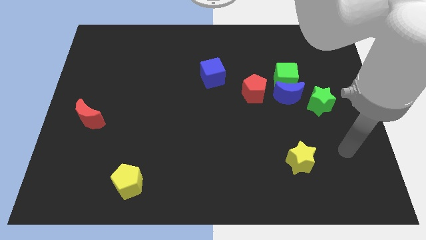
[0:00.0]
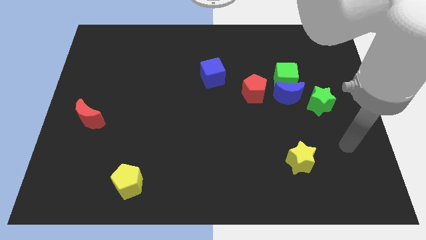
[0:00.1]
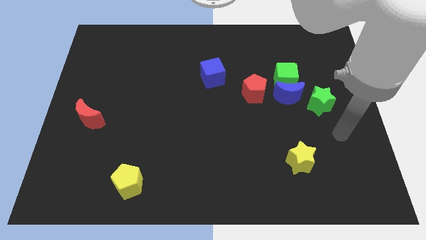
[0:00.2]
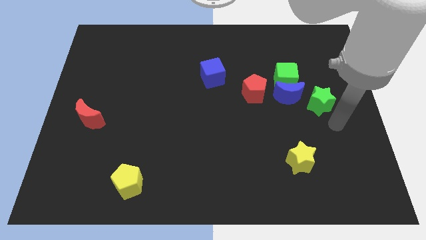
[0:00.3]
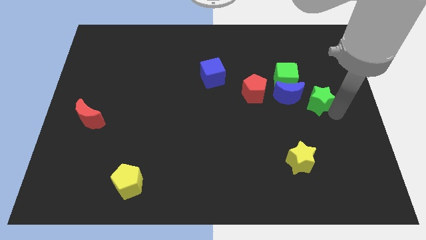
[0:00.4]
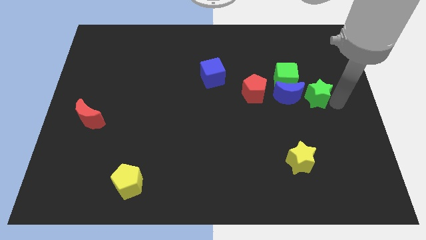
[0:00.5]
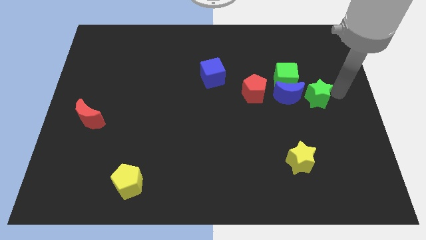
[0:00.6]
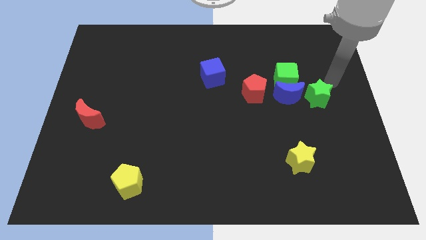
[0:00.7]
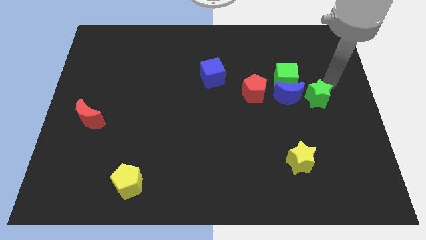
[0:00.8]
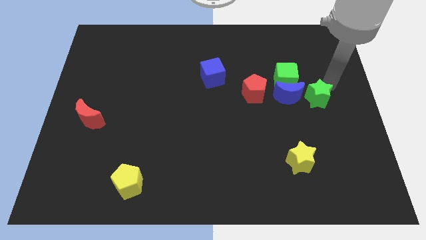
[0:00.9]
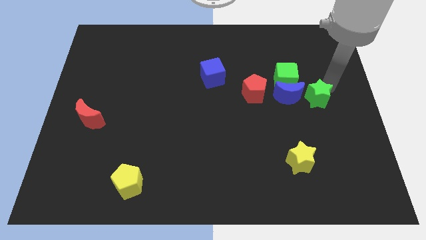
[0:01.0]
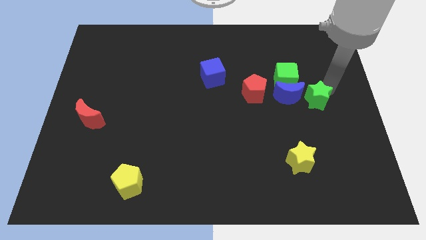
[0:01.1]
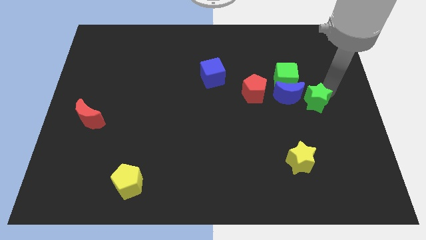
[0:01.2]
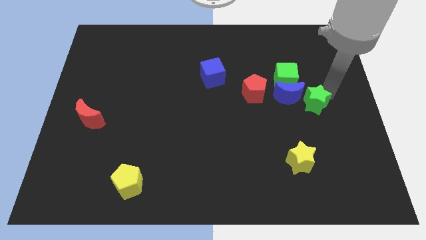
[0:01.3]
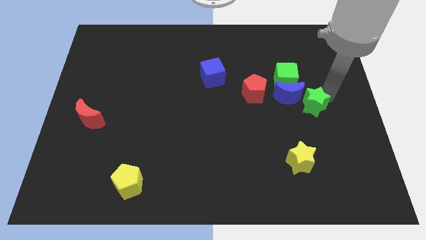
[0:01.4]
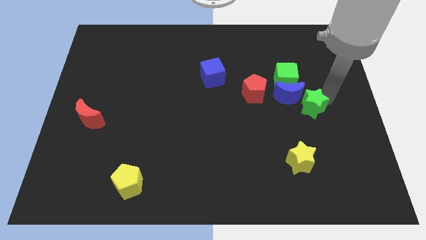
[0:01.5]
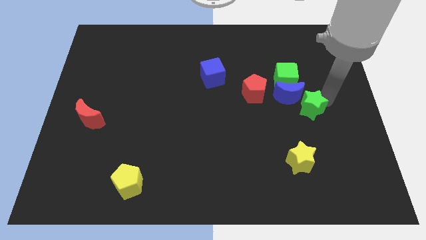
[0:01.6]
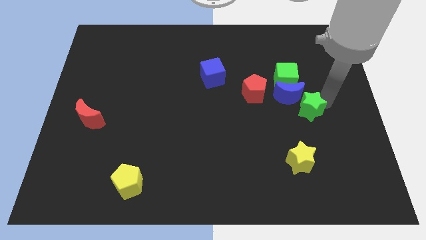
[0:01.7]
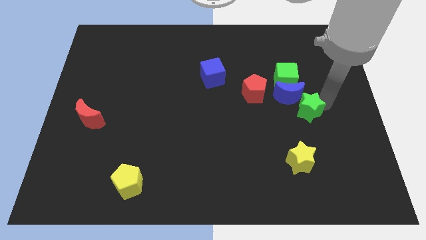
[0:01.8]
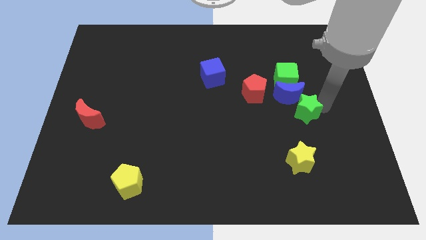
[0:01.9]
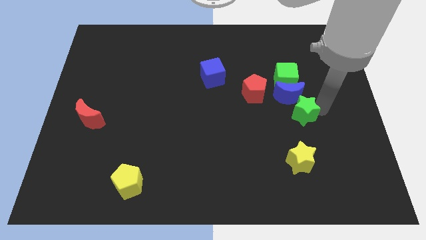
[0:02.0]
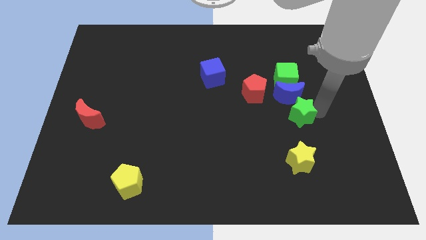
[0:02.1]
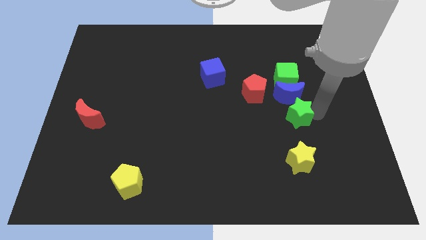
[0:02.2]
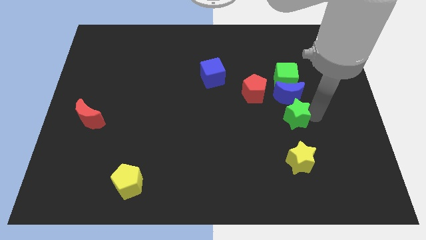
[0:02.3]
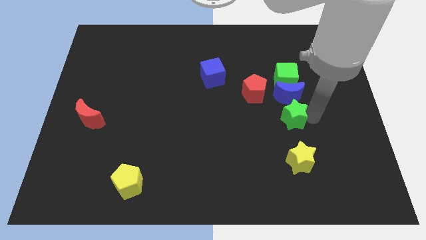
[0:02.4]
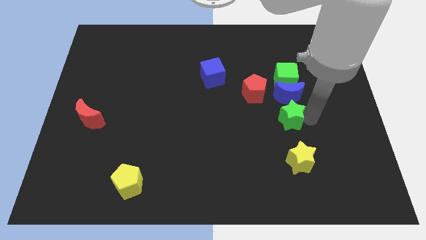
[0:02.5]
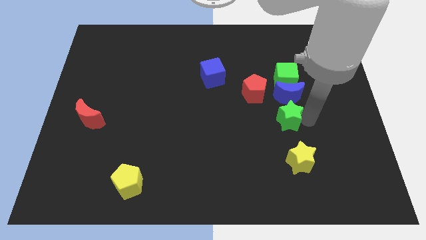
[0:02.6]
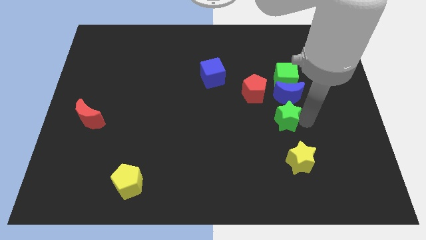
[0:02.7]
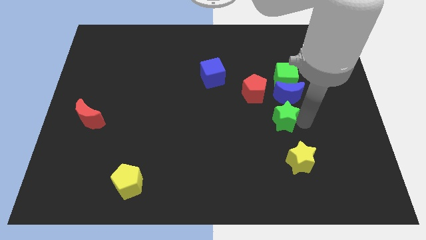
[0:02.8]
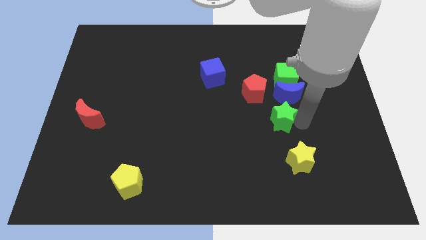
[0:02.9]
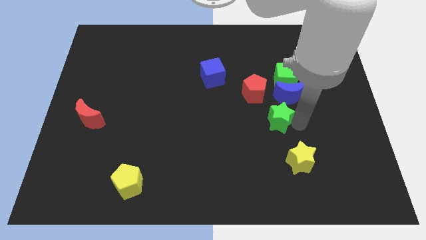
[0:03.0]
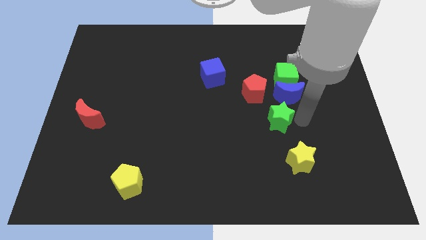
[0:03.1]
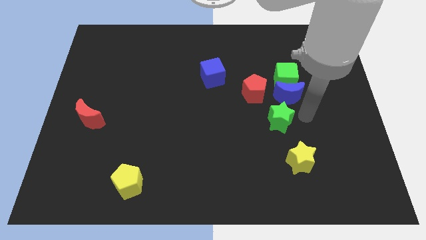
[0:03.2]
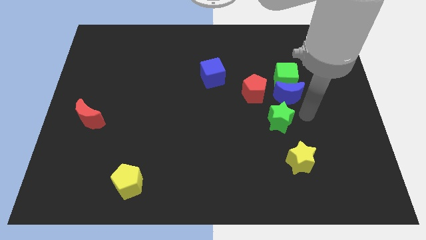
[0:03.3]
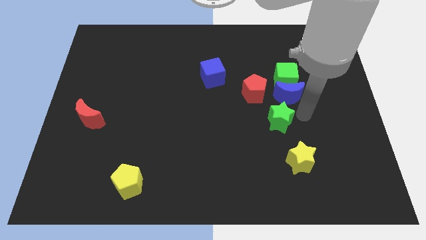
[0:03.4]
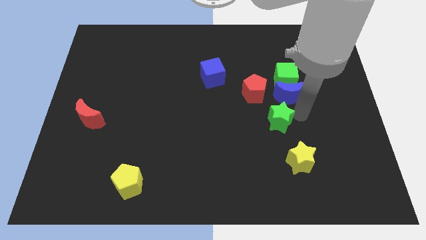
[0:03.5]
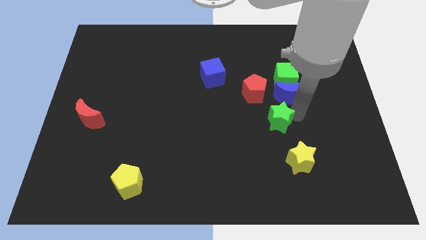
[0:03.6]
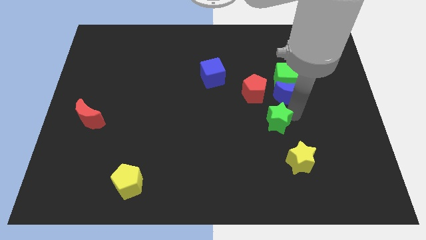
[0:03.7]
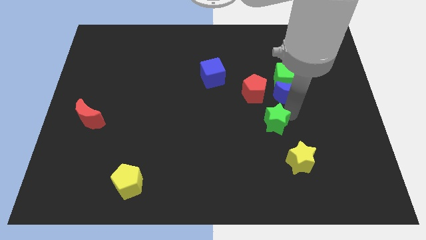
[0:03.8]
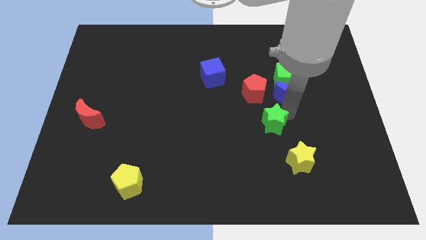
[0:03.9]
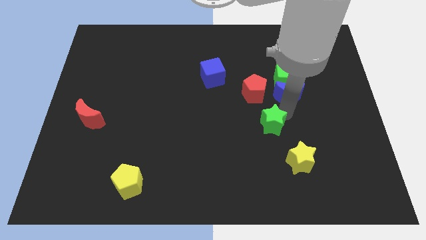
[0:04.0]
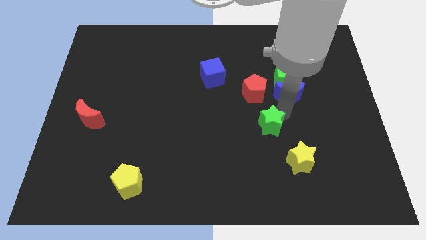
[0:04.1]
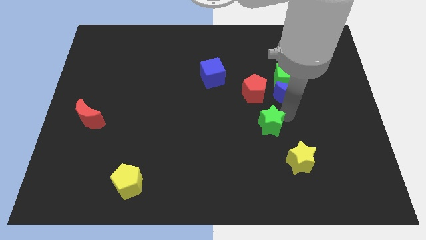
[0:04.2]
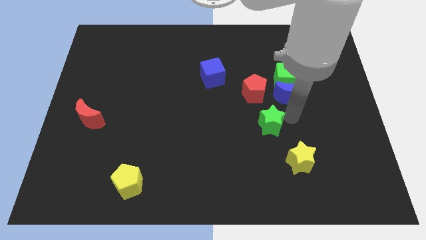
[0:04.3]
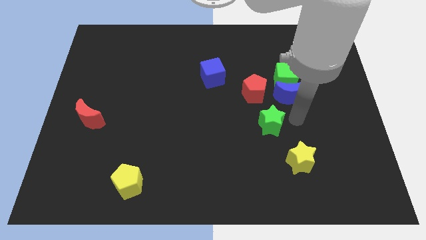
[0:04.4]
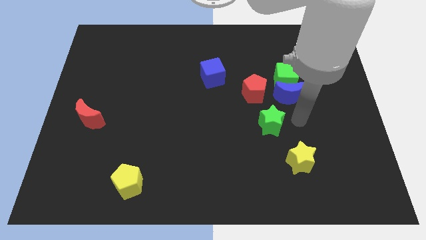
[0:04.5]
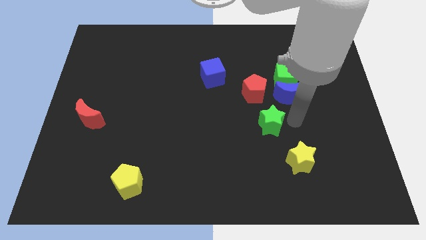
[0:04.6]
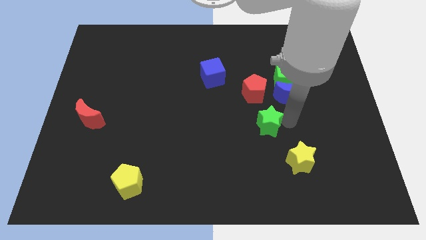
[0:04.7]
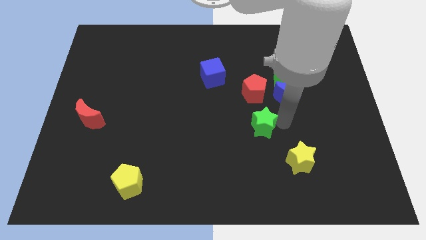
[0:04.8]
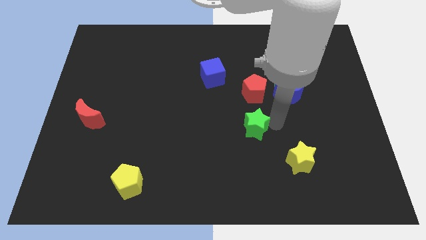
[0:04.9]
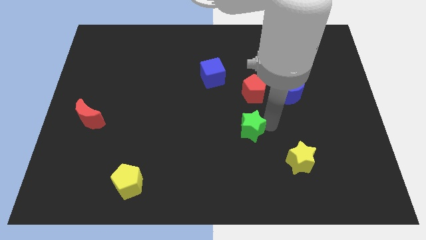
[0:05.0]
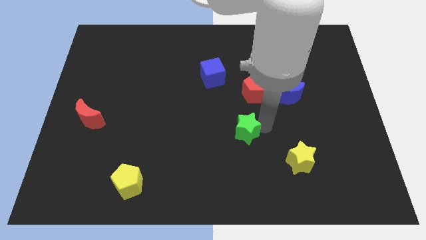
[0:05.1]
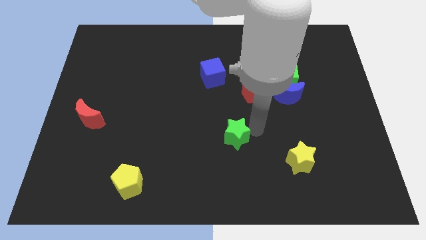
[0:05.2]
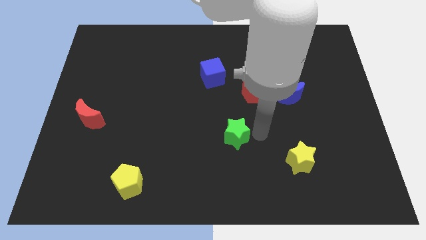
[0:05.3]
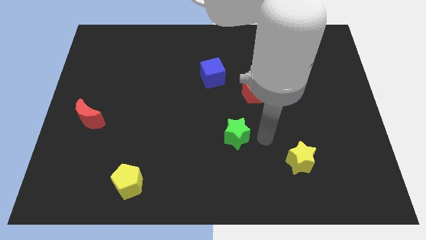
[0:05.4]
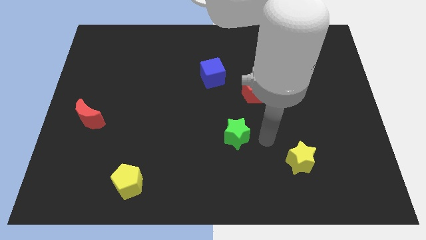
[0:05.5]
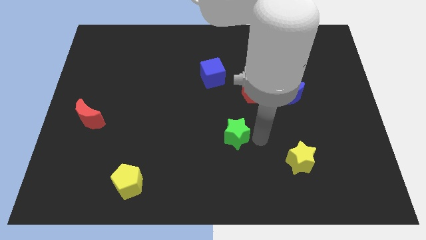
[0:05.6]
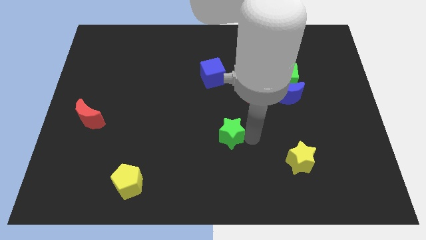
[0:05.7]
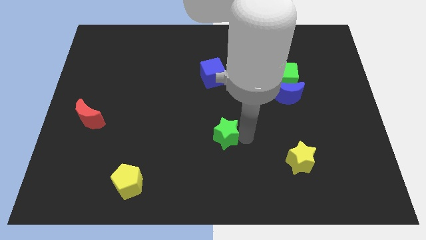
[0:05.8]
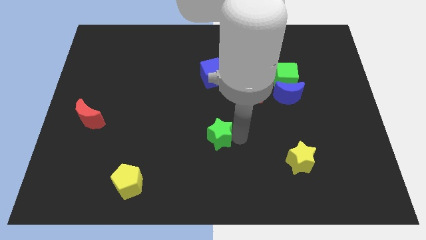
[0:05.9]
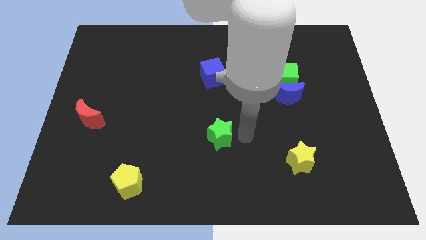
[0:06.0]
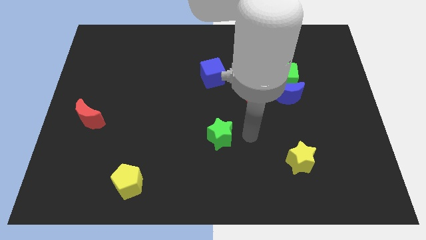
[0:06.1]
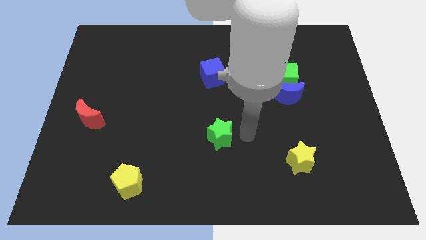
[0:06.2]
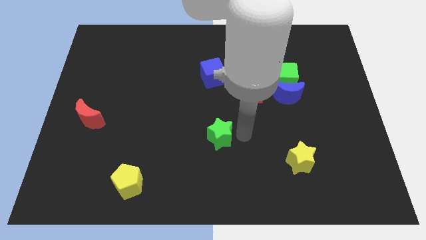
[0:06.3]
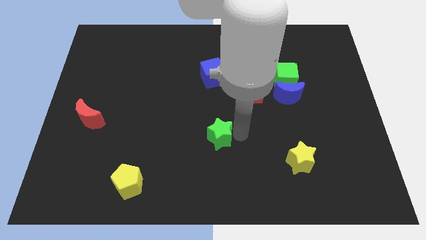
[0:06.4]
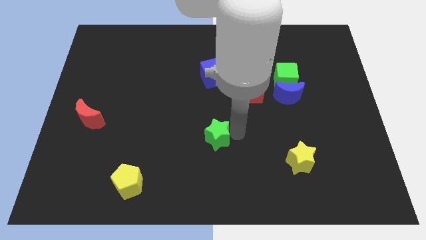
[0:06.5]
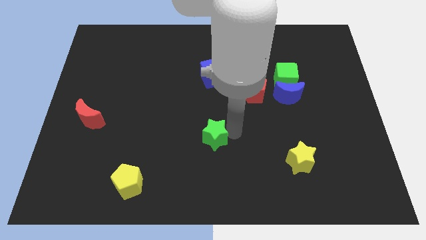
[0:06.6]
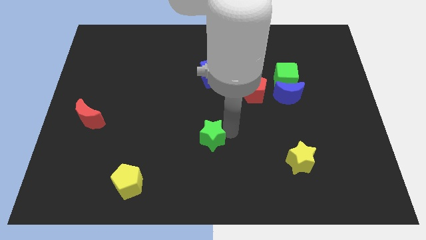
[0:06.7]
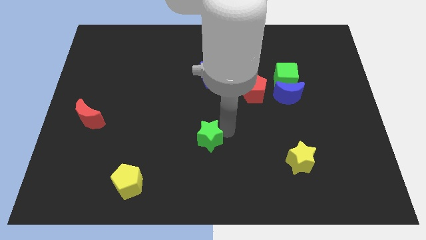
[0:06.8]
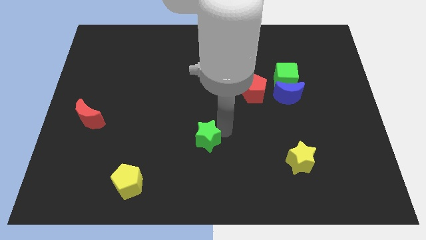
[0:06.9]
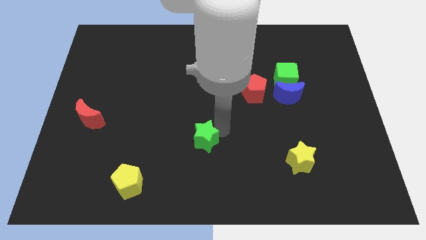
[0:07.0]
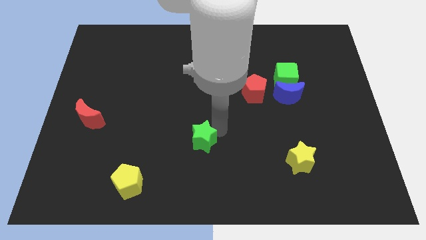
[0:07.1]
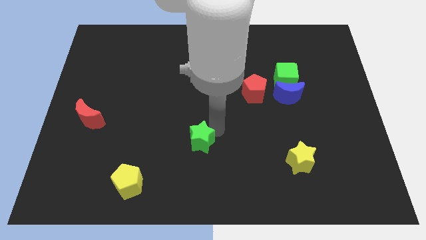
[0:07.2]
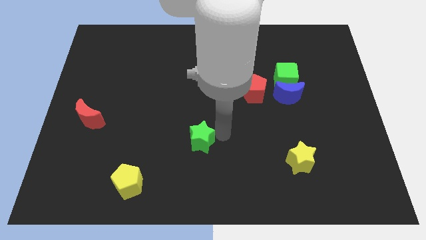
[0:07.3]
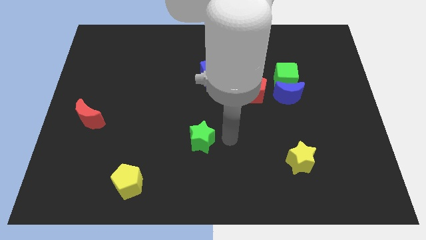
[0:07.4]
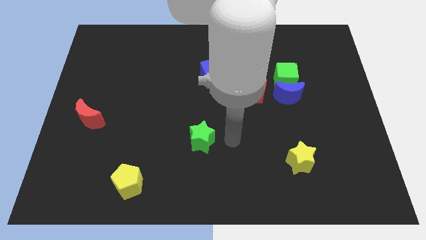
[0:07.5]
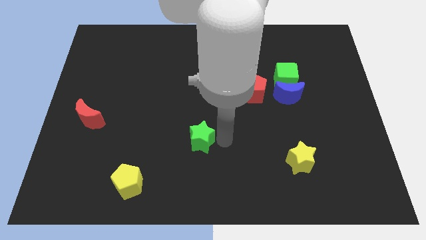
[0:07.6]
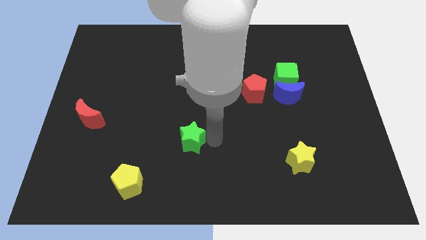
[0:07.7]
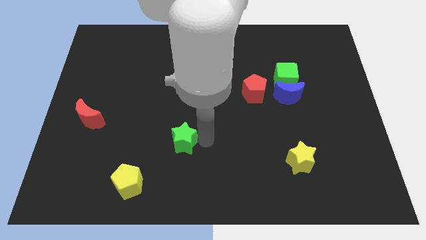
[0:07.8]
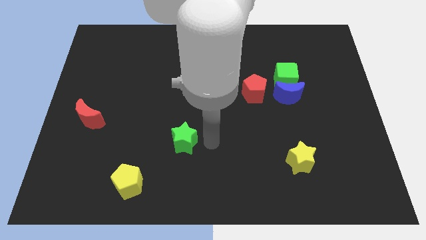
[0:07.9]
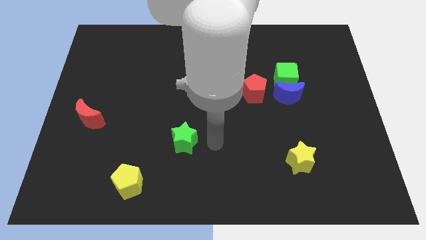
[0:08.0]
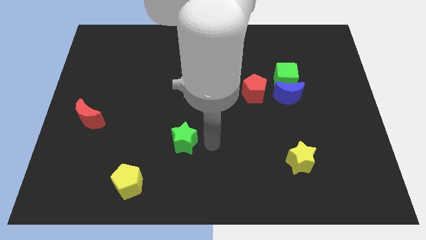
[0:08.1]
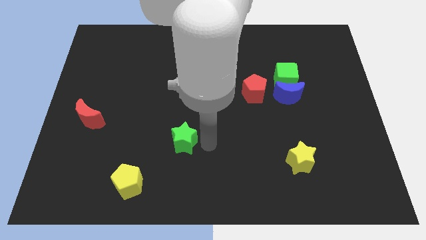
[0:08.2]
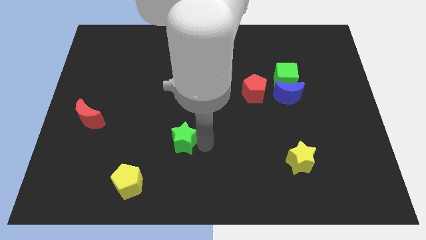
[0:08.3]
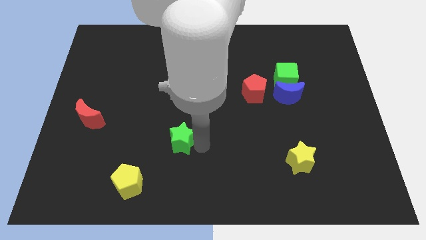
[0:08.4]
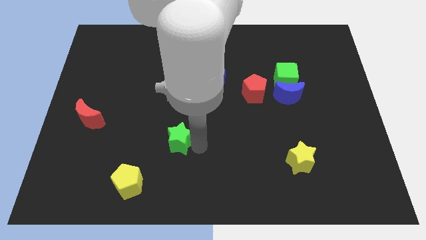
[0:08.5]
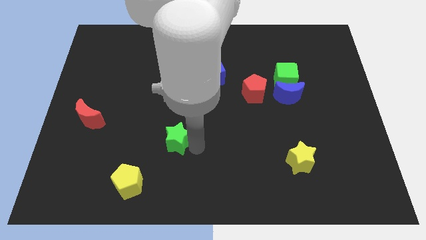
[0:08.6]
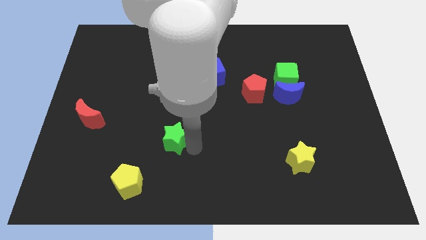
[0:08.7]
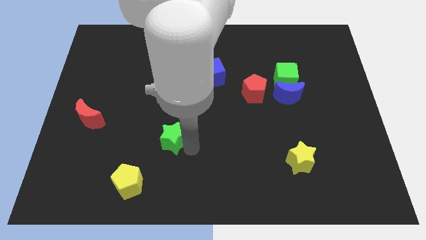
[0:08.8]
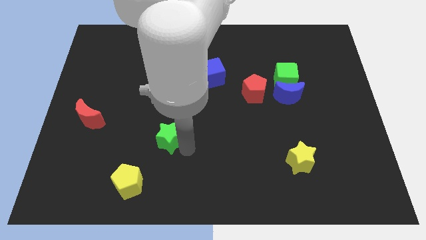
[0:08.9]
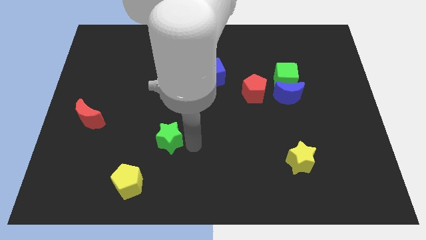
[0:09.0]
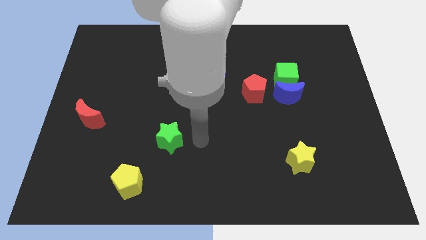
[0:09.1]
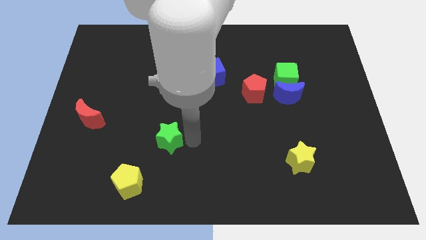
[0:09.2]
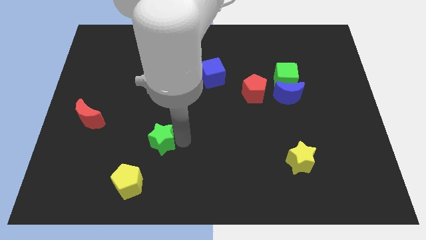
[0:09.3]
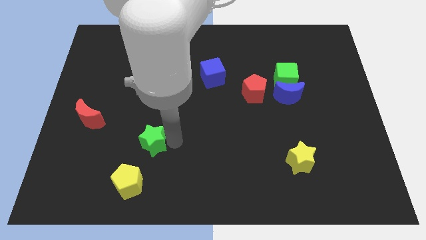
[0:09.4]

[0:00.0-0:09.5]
put the green star to the top side of the yellow pentagon
